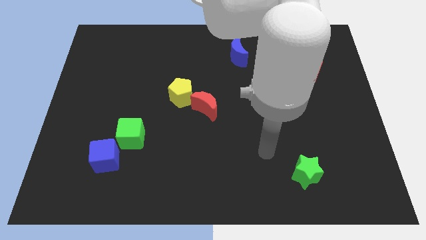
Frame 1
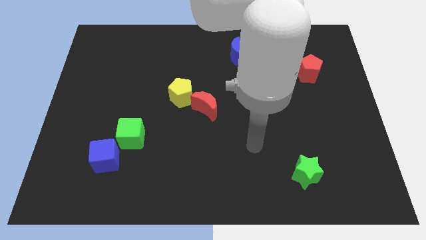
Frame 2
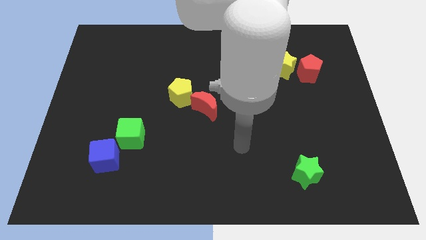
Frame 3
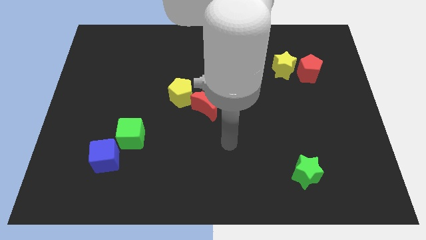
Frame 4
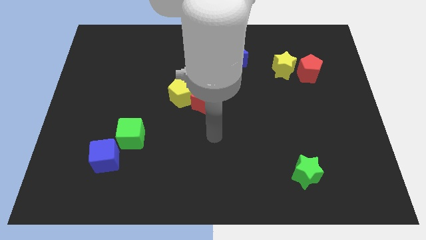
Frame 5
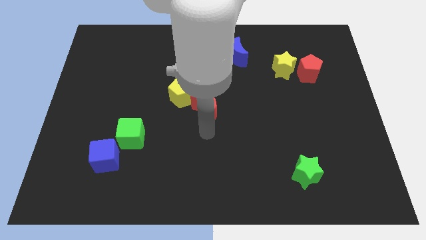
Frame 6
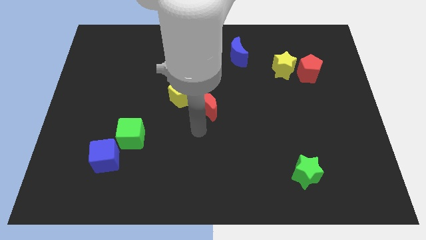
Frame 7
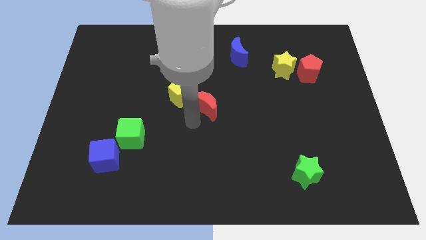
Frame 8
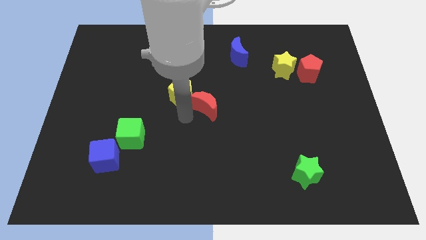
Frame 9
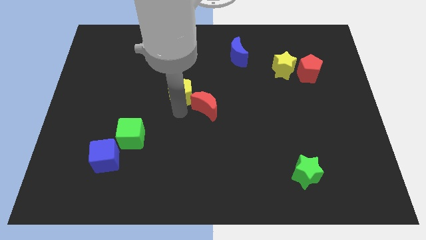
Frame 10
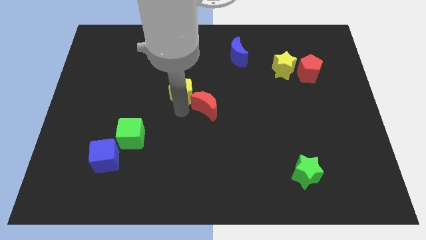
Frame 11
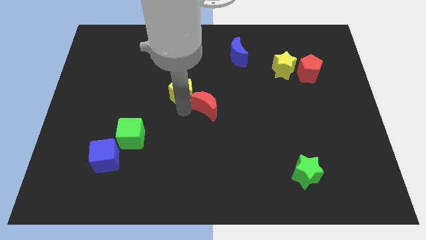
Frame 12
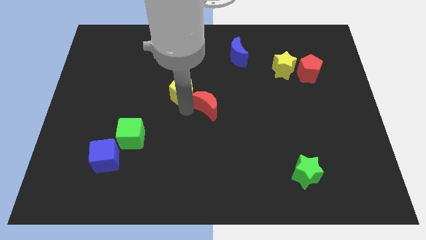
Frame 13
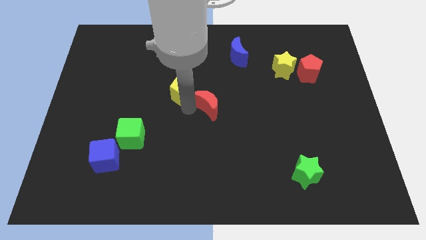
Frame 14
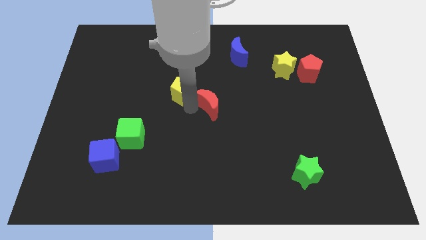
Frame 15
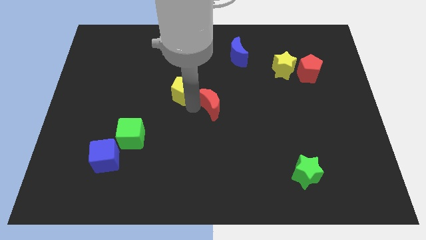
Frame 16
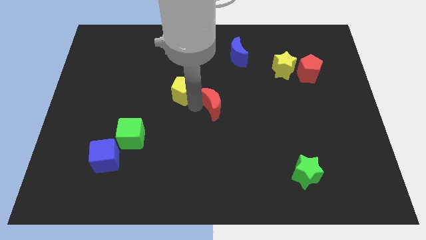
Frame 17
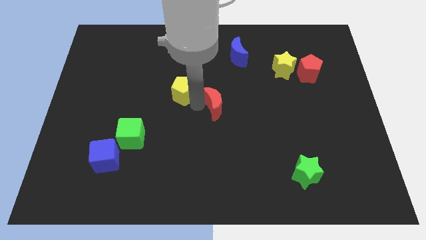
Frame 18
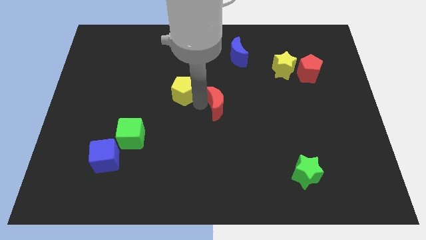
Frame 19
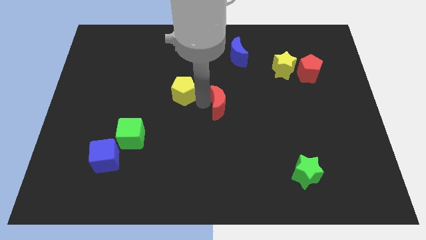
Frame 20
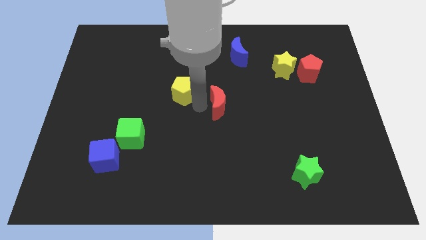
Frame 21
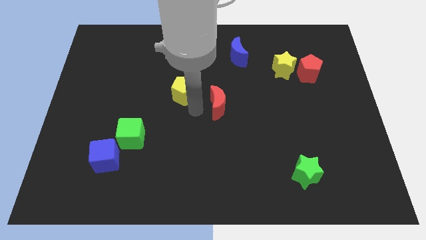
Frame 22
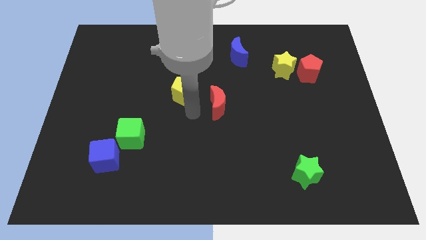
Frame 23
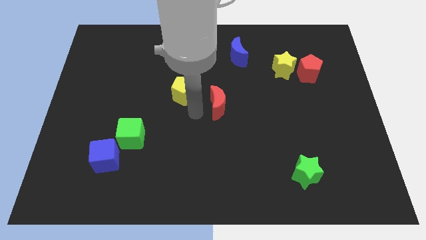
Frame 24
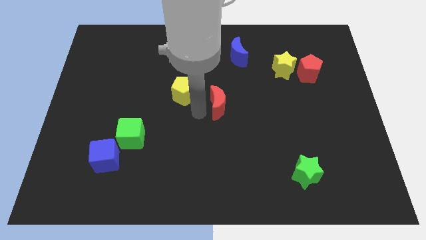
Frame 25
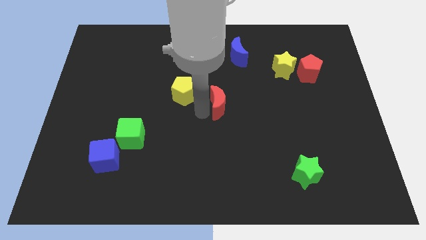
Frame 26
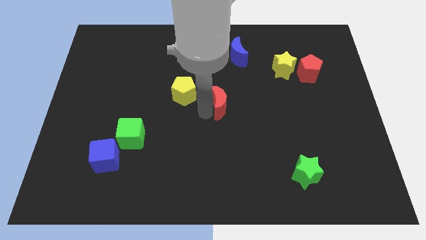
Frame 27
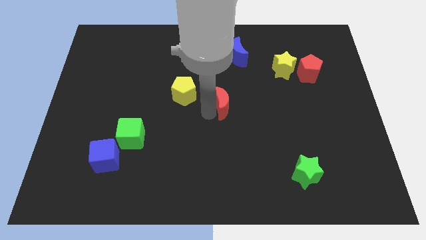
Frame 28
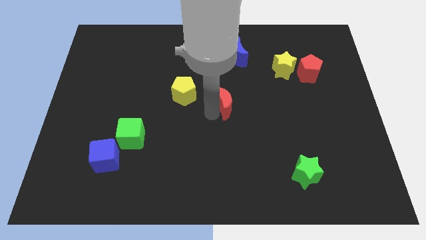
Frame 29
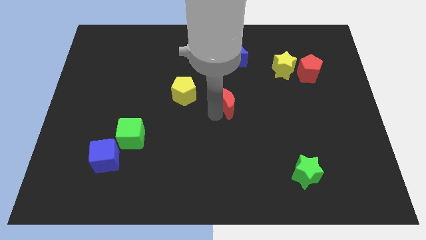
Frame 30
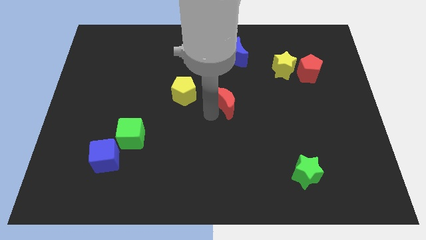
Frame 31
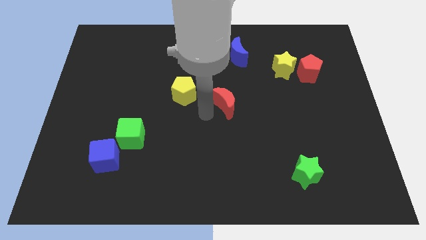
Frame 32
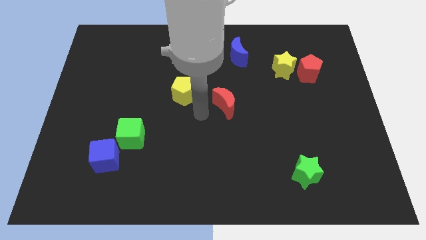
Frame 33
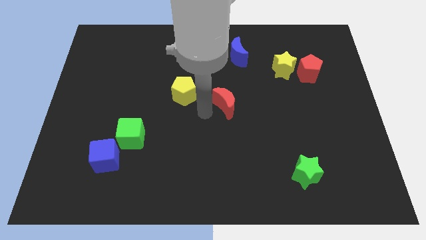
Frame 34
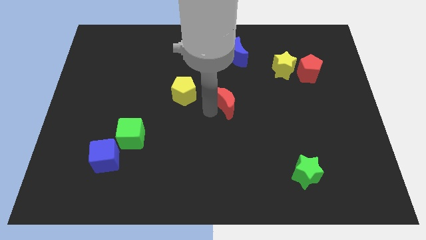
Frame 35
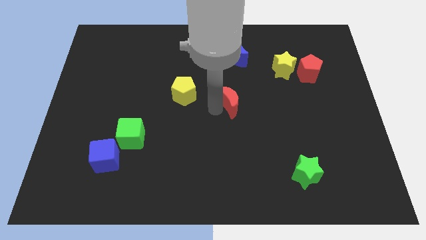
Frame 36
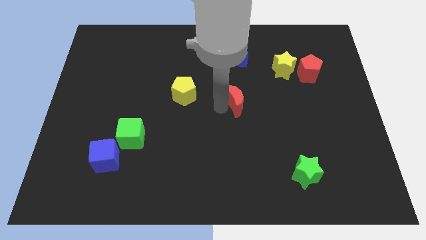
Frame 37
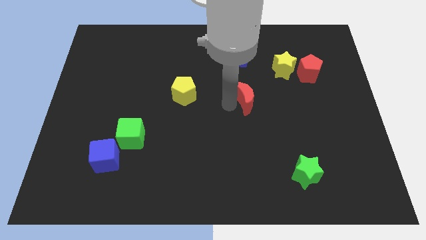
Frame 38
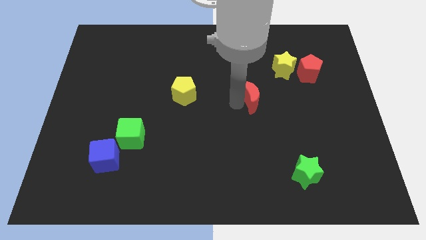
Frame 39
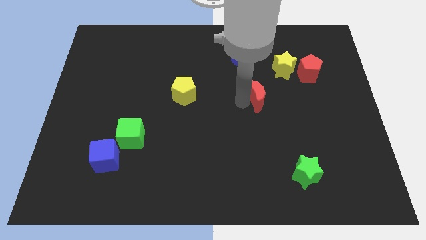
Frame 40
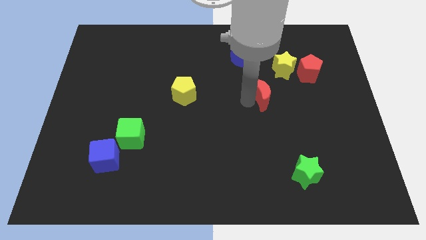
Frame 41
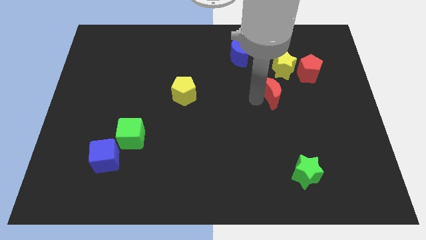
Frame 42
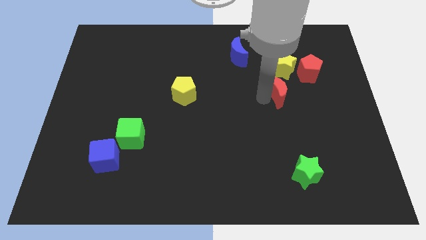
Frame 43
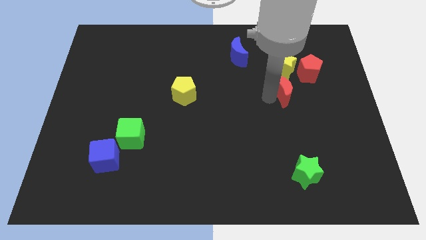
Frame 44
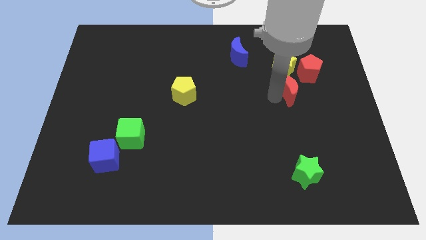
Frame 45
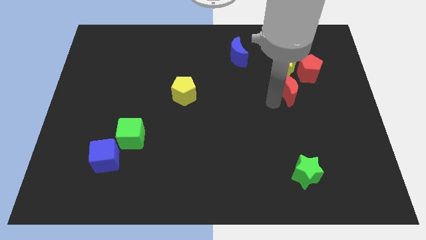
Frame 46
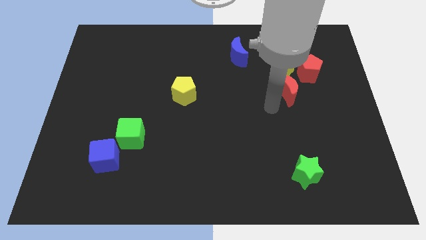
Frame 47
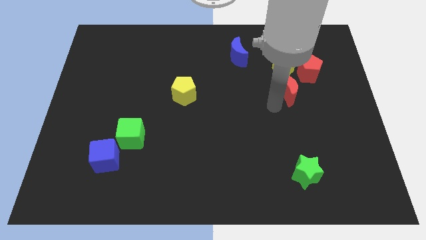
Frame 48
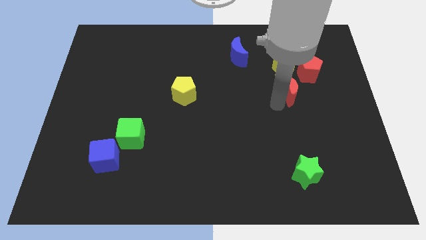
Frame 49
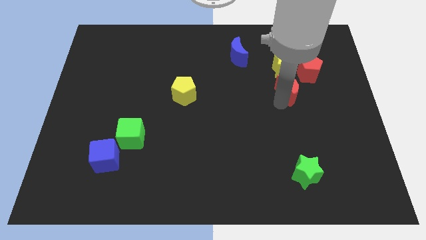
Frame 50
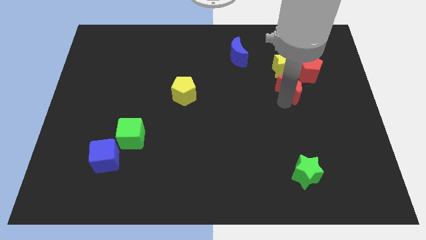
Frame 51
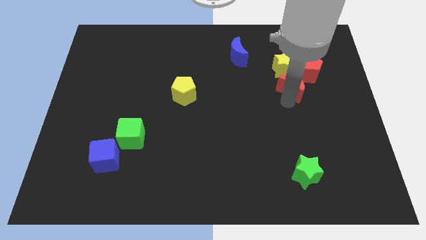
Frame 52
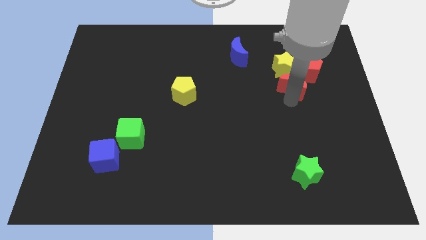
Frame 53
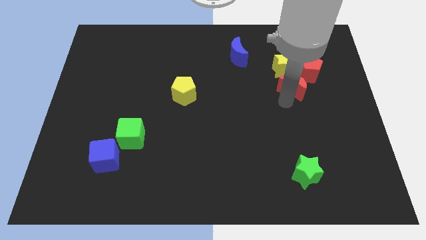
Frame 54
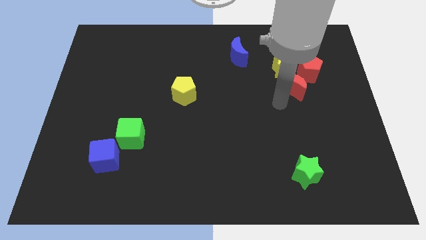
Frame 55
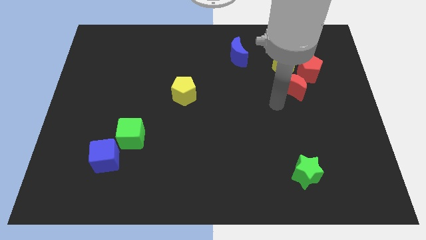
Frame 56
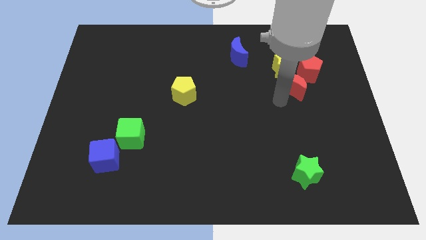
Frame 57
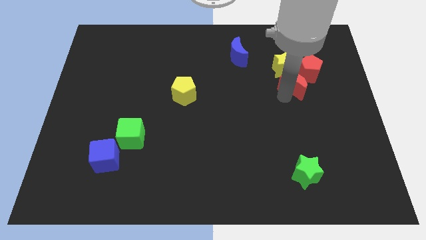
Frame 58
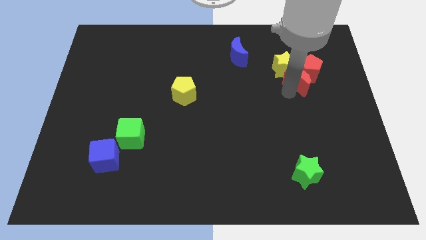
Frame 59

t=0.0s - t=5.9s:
put the red moon close to the red pentagon
